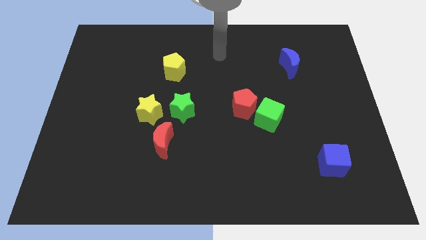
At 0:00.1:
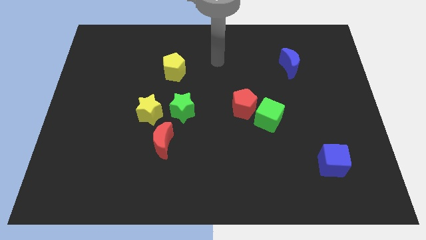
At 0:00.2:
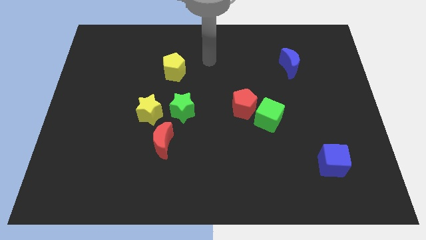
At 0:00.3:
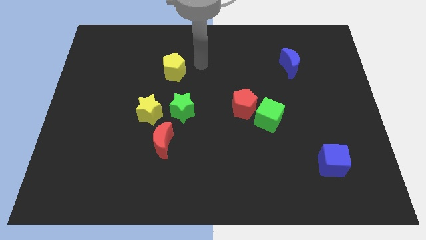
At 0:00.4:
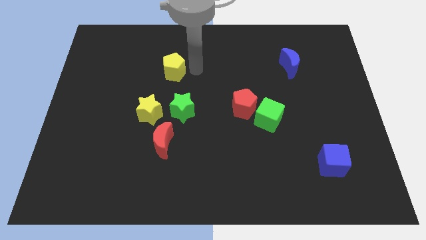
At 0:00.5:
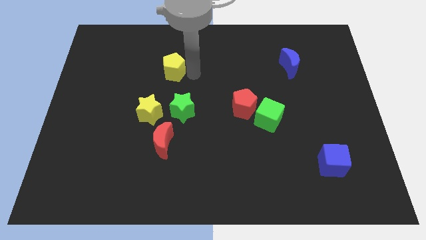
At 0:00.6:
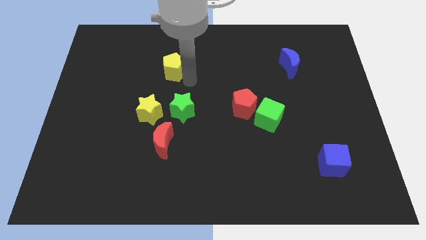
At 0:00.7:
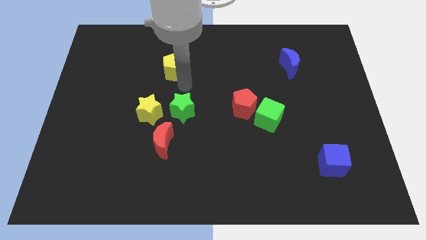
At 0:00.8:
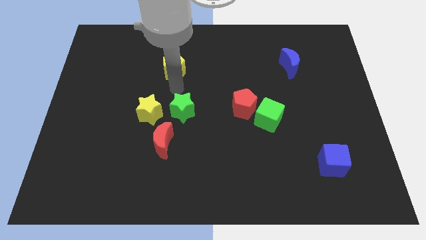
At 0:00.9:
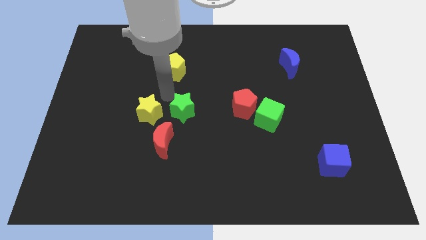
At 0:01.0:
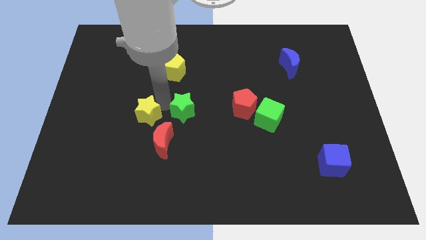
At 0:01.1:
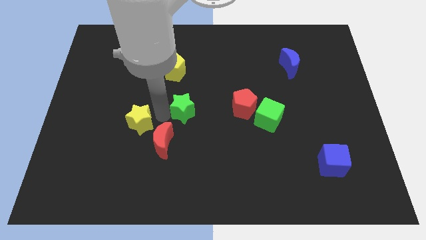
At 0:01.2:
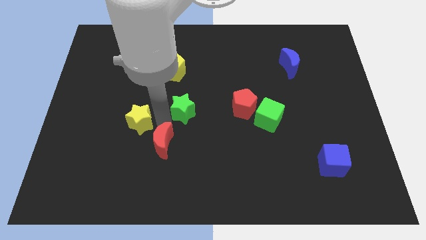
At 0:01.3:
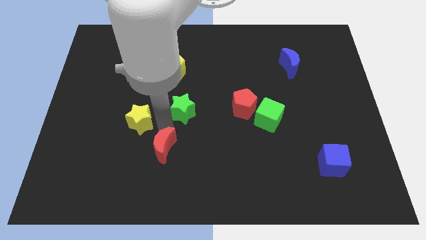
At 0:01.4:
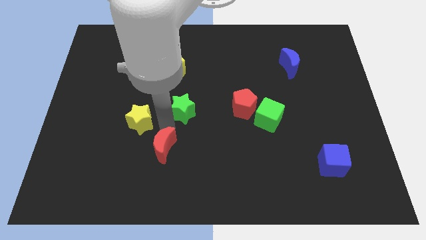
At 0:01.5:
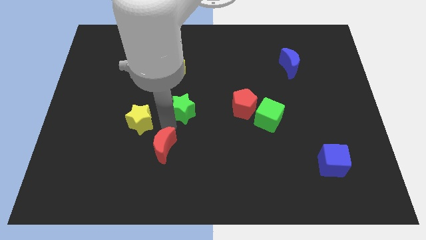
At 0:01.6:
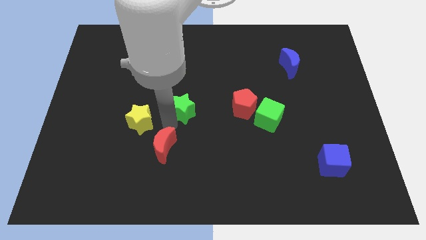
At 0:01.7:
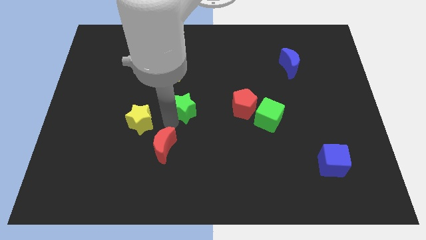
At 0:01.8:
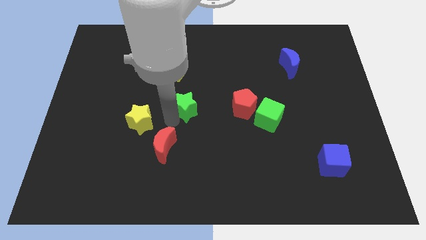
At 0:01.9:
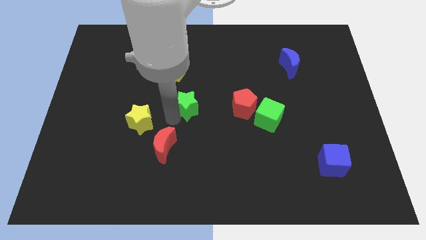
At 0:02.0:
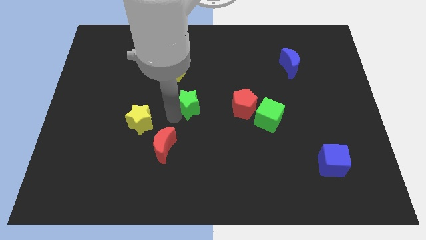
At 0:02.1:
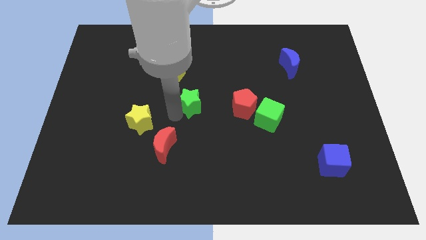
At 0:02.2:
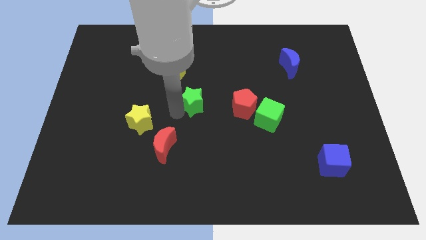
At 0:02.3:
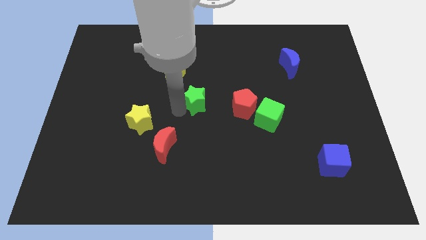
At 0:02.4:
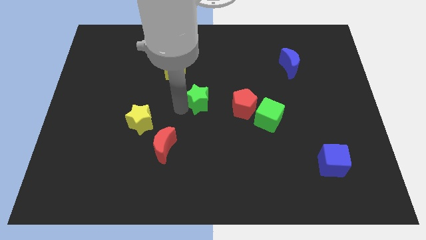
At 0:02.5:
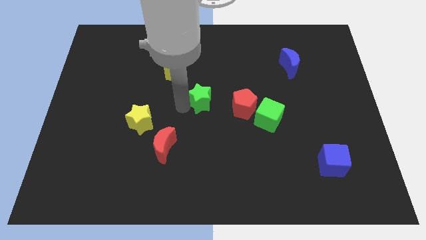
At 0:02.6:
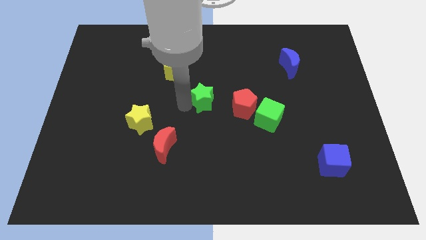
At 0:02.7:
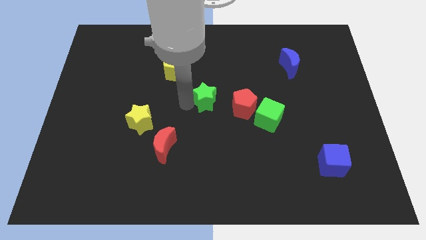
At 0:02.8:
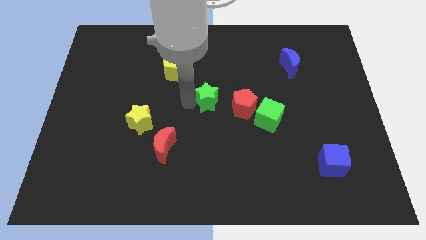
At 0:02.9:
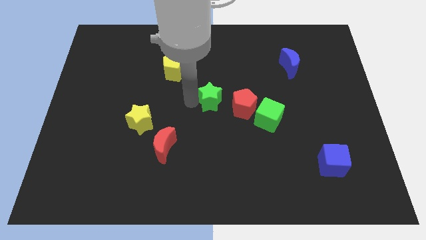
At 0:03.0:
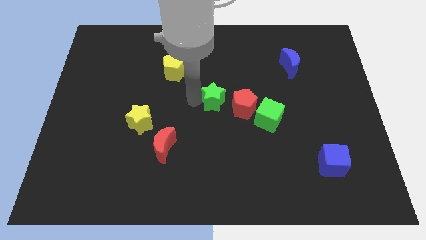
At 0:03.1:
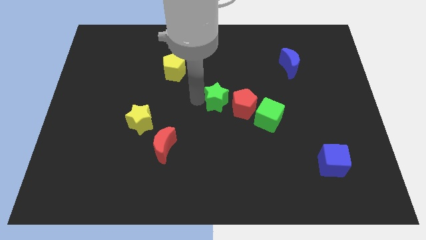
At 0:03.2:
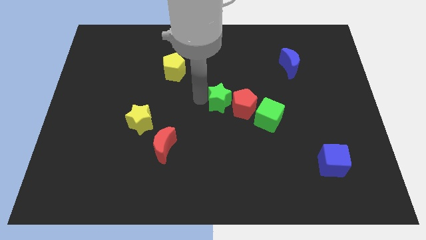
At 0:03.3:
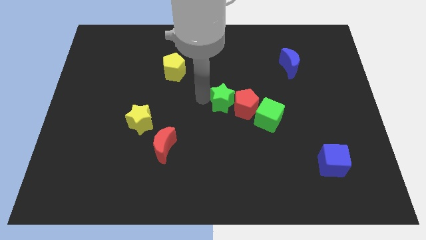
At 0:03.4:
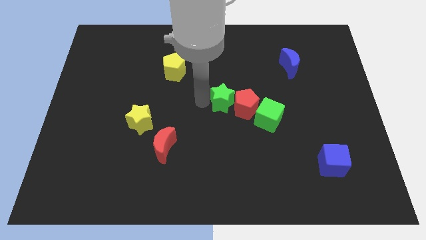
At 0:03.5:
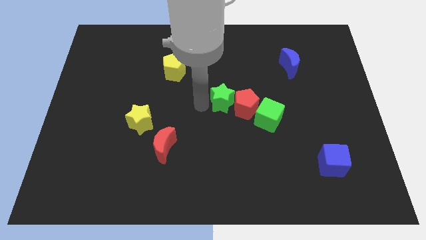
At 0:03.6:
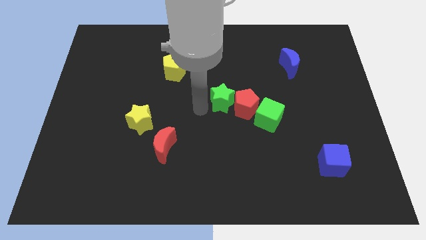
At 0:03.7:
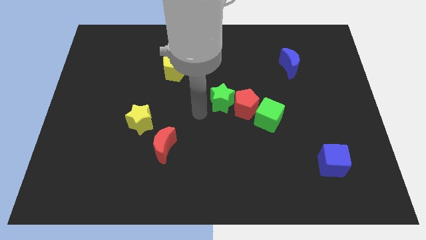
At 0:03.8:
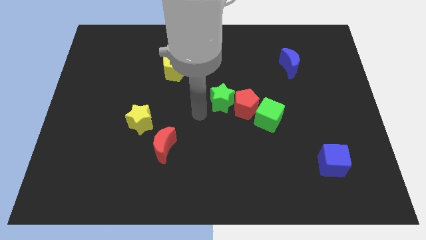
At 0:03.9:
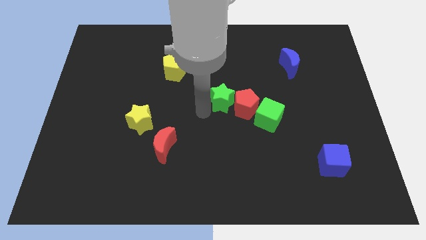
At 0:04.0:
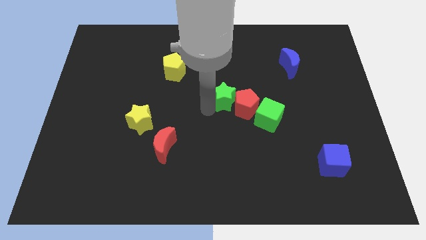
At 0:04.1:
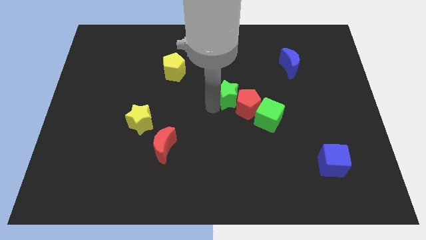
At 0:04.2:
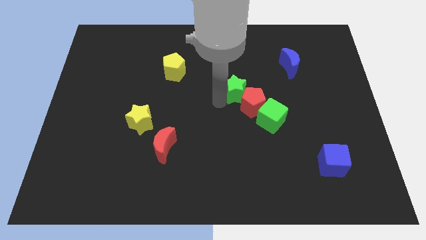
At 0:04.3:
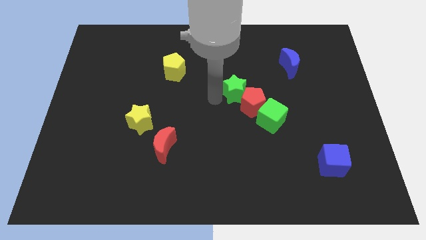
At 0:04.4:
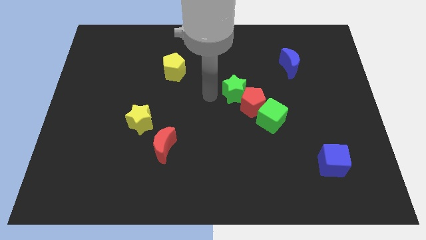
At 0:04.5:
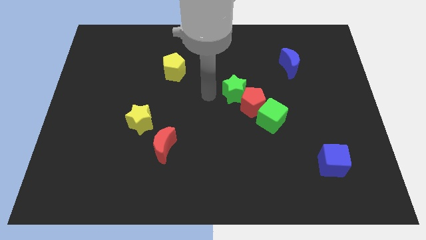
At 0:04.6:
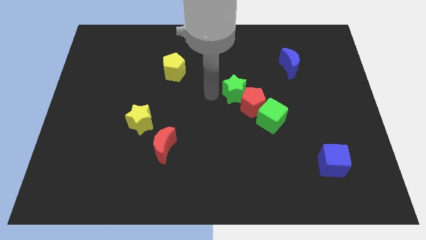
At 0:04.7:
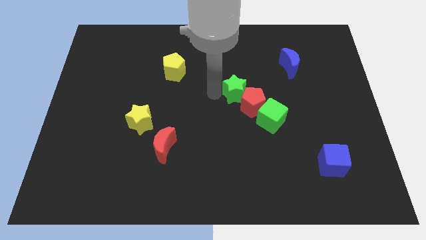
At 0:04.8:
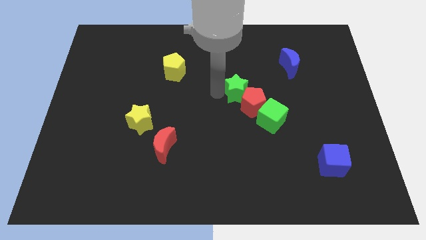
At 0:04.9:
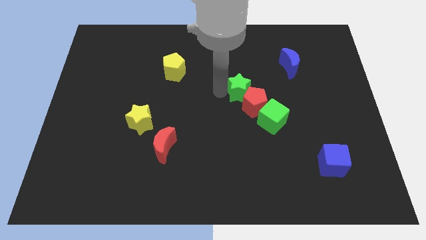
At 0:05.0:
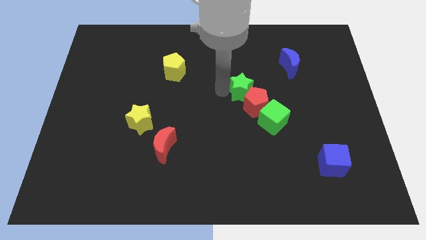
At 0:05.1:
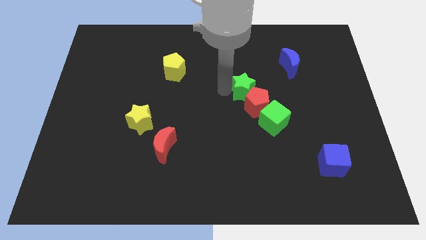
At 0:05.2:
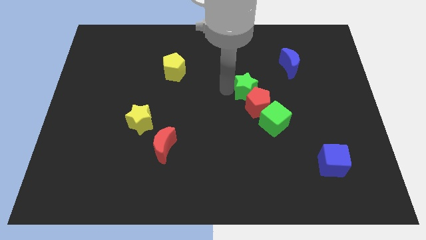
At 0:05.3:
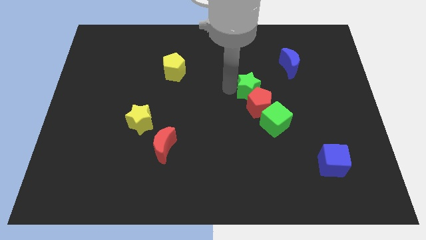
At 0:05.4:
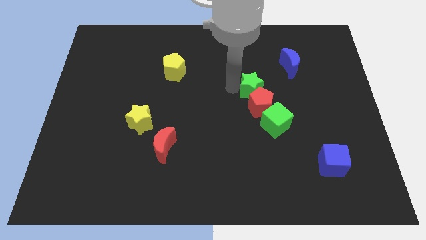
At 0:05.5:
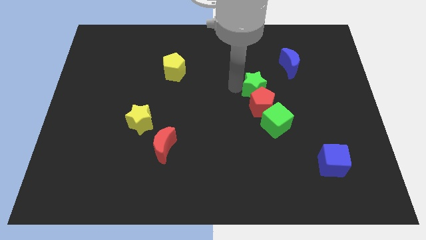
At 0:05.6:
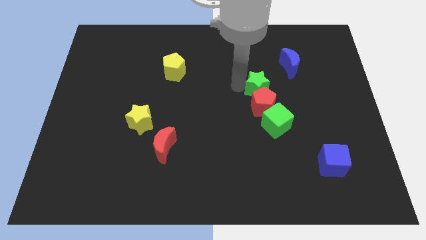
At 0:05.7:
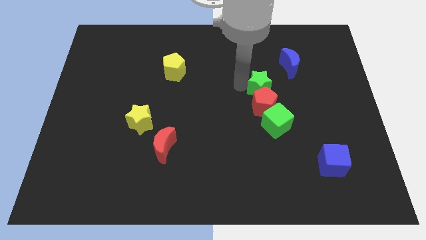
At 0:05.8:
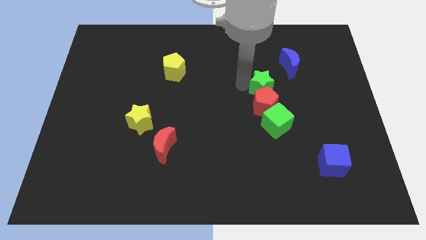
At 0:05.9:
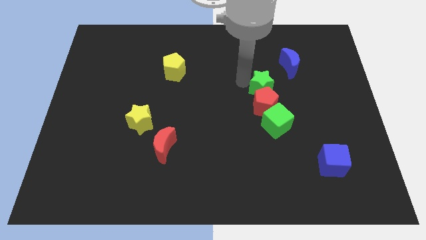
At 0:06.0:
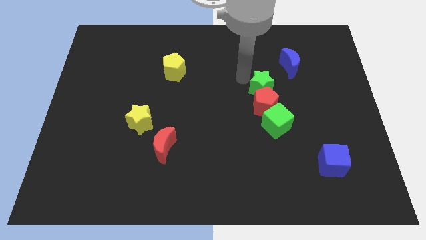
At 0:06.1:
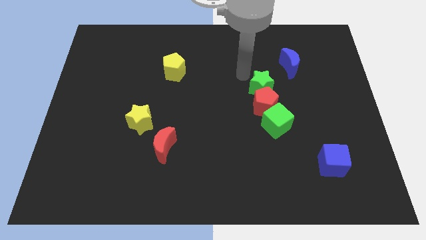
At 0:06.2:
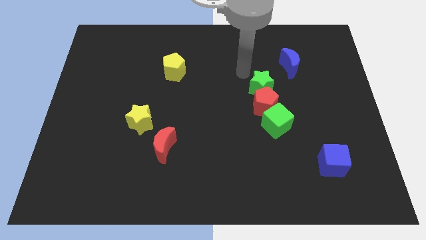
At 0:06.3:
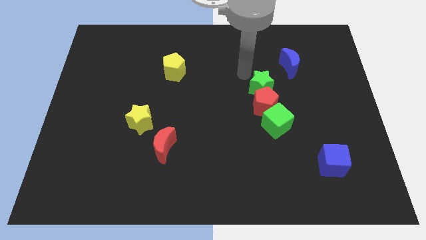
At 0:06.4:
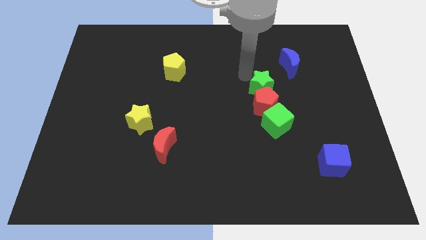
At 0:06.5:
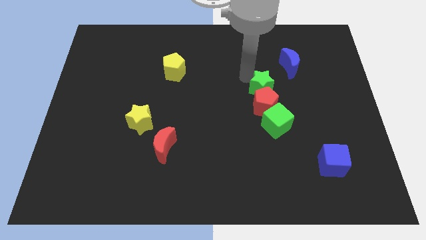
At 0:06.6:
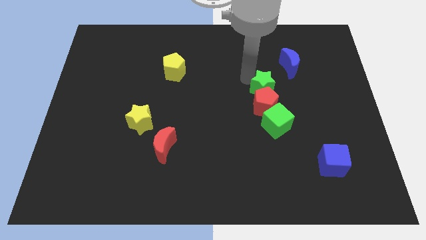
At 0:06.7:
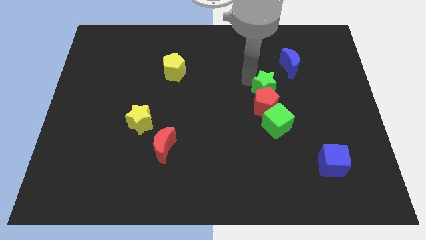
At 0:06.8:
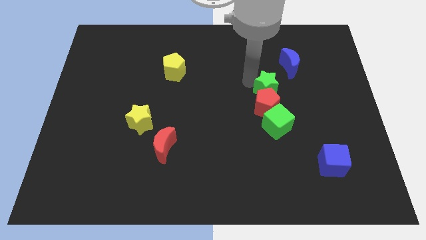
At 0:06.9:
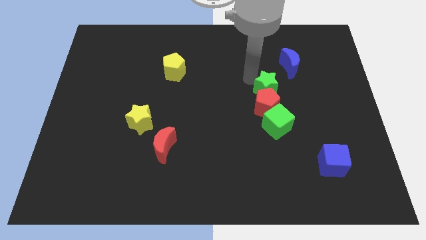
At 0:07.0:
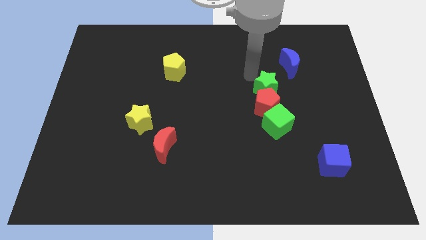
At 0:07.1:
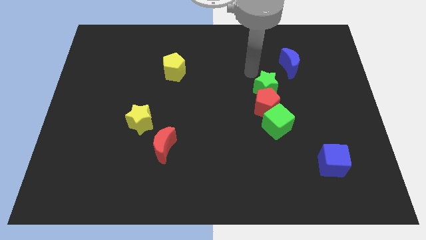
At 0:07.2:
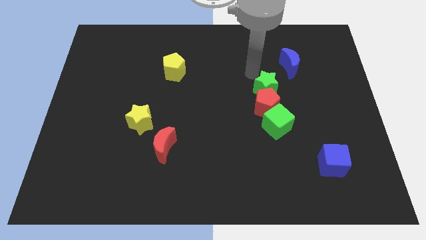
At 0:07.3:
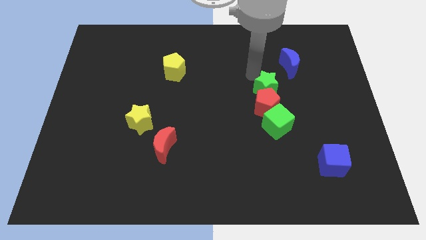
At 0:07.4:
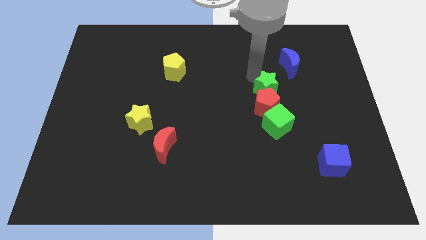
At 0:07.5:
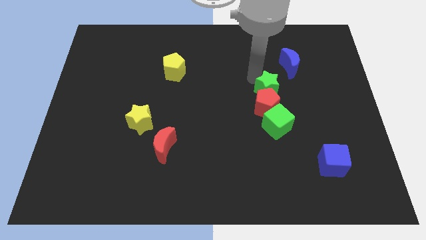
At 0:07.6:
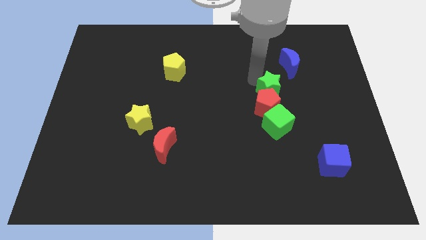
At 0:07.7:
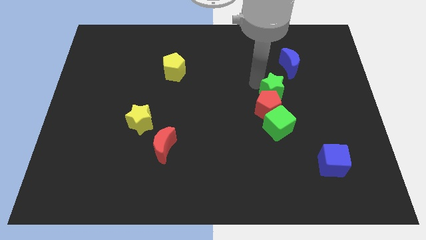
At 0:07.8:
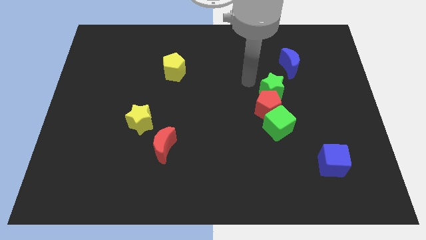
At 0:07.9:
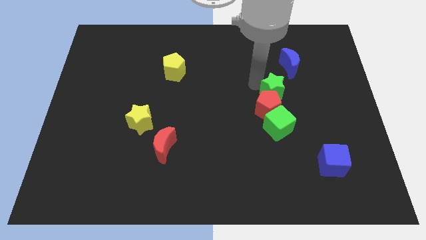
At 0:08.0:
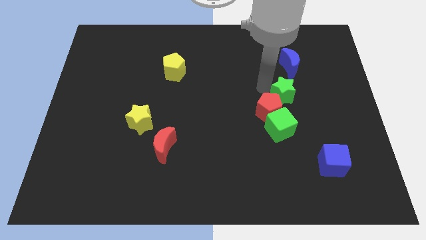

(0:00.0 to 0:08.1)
slide the green star right of the red pentagon
